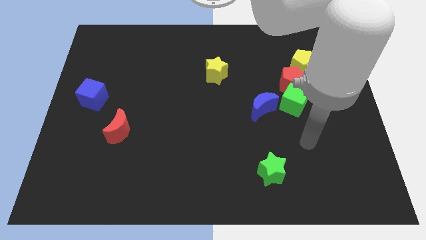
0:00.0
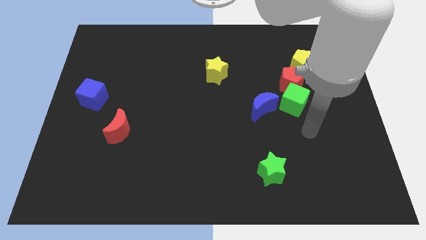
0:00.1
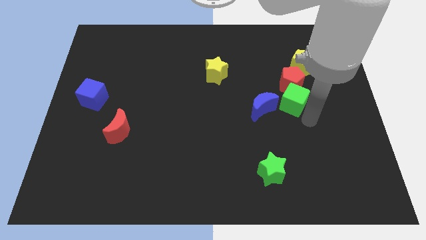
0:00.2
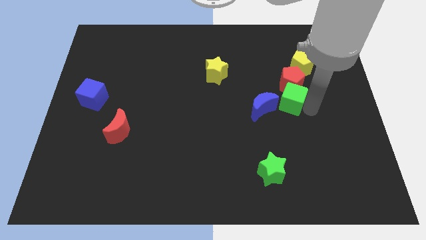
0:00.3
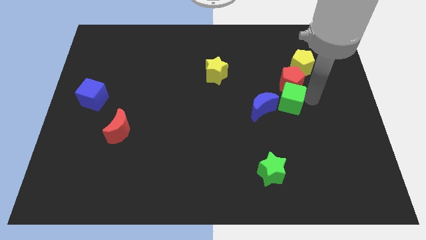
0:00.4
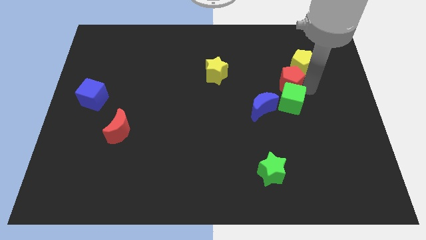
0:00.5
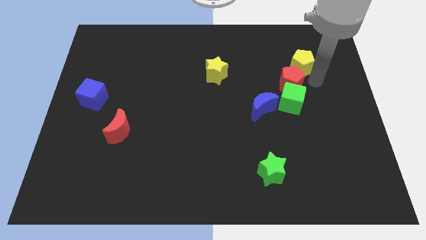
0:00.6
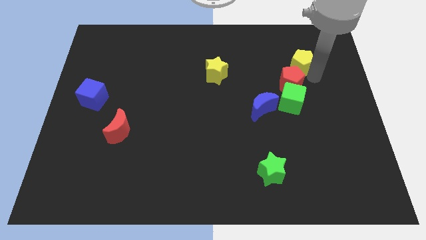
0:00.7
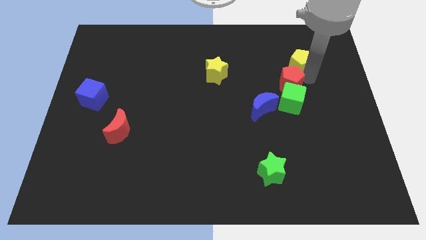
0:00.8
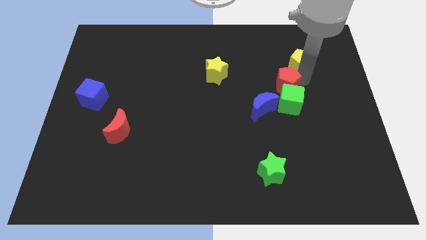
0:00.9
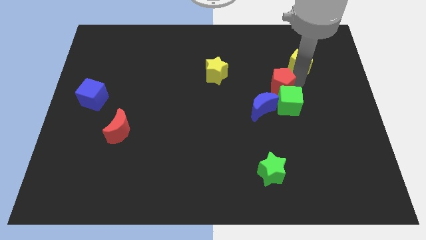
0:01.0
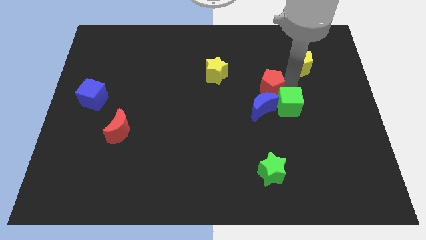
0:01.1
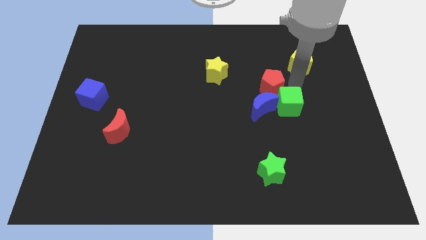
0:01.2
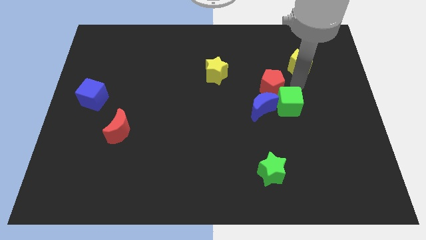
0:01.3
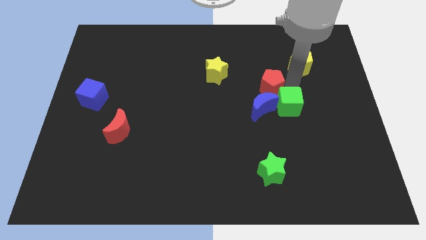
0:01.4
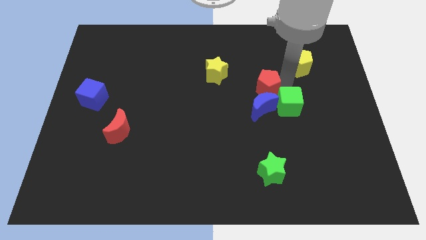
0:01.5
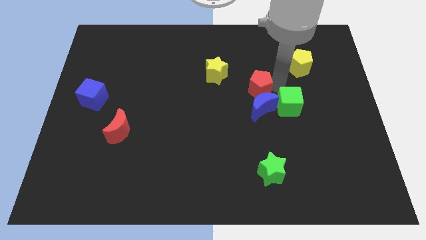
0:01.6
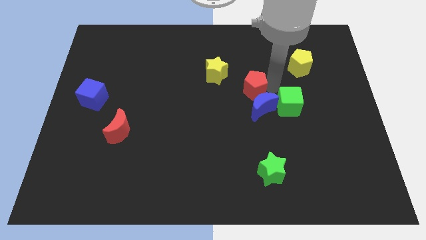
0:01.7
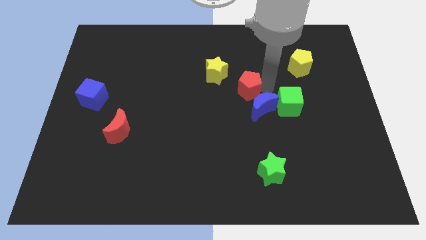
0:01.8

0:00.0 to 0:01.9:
separate the red pentagon from the green cube and yellow pentagon

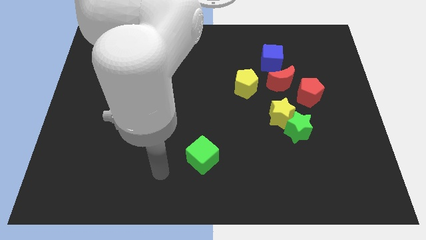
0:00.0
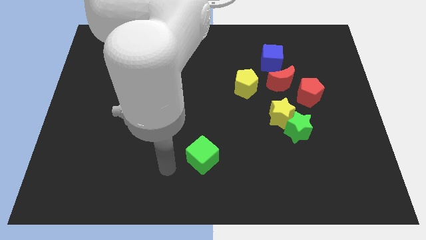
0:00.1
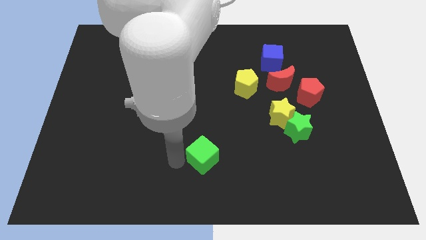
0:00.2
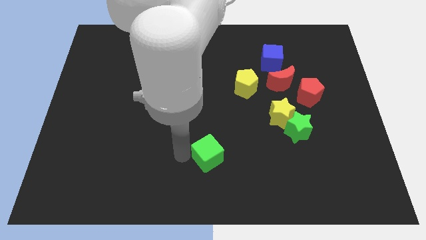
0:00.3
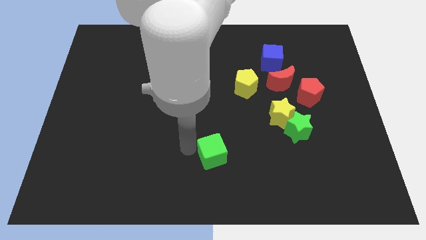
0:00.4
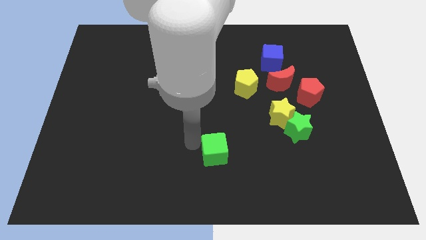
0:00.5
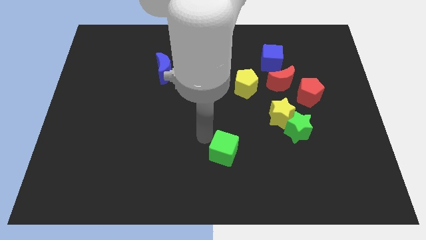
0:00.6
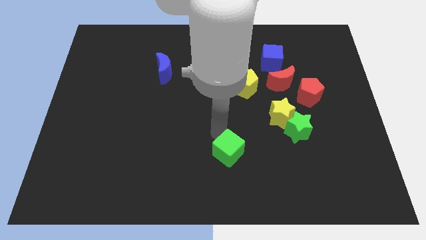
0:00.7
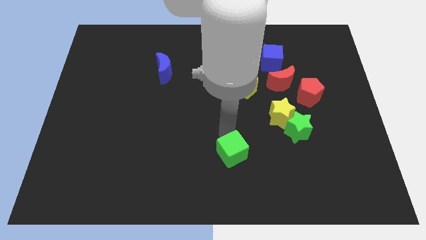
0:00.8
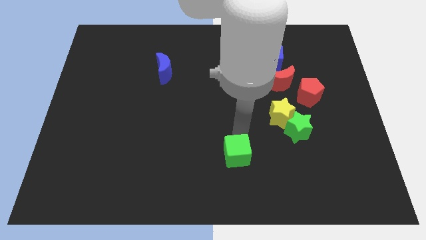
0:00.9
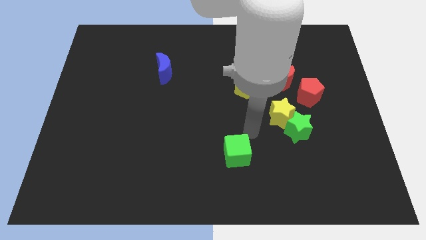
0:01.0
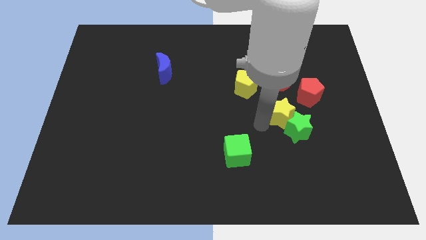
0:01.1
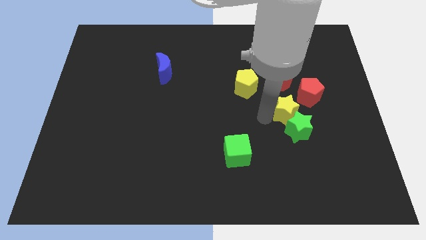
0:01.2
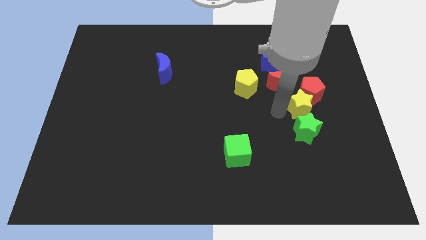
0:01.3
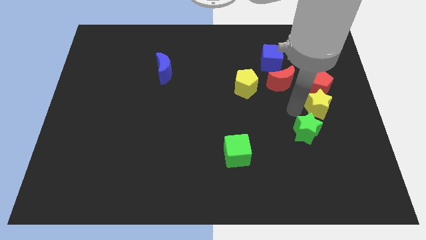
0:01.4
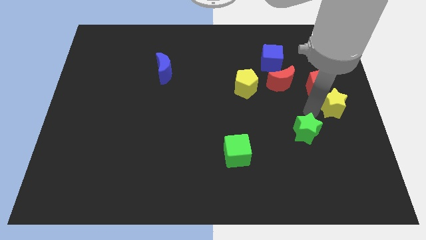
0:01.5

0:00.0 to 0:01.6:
move the green star away from the yellow star

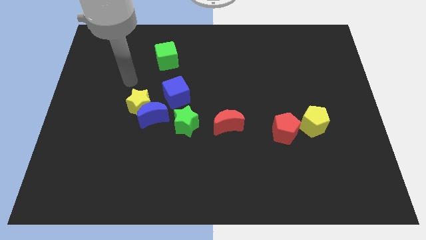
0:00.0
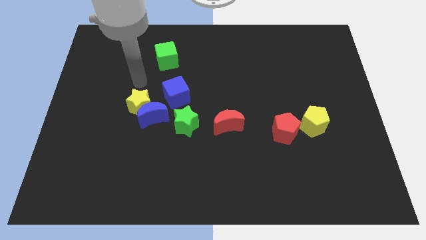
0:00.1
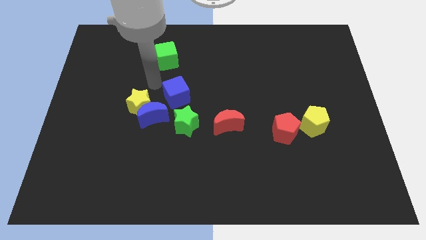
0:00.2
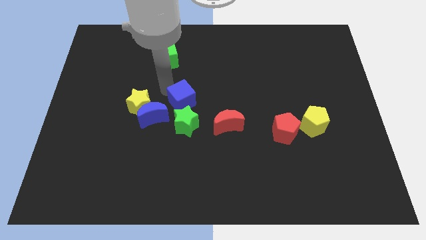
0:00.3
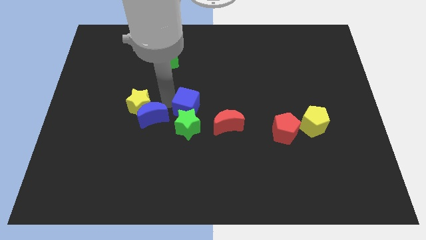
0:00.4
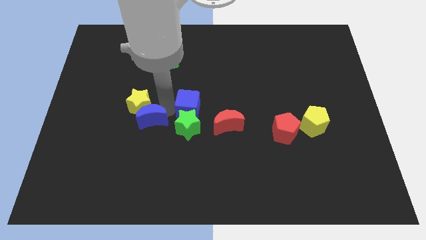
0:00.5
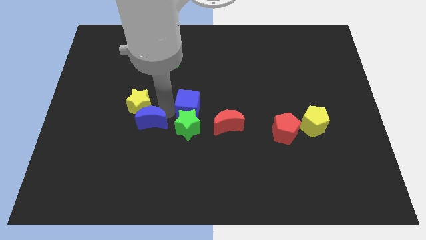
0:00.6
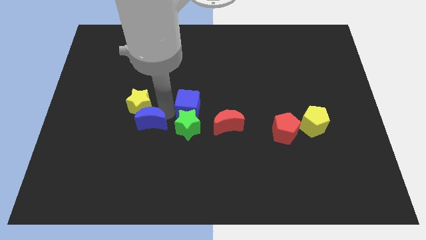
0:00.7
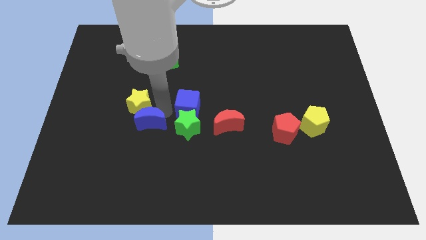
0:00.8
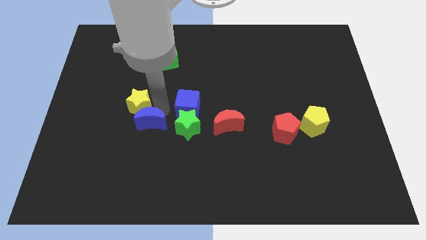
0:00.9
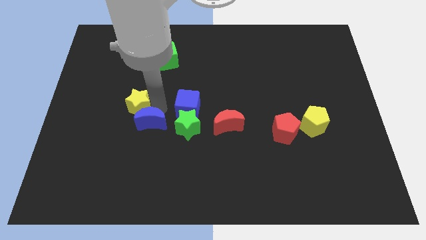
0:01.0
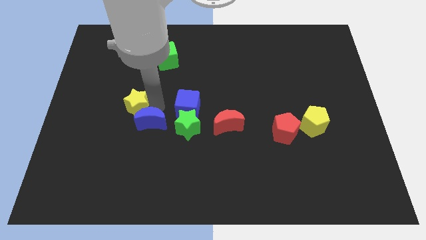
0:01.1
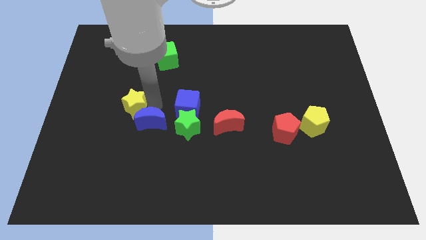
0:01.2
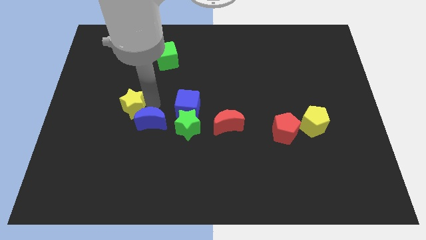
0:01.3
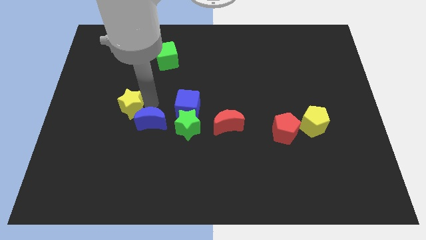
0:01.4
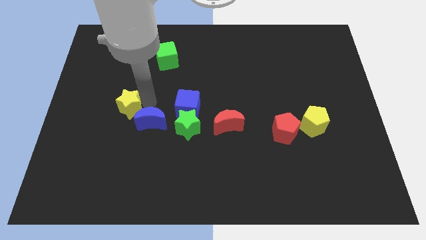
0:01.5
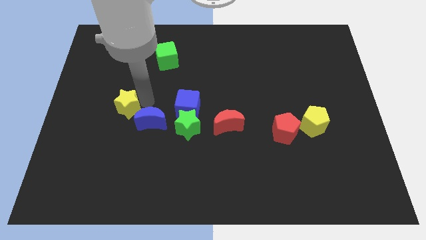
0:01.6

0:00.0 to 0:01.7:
move the yellow star away from the blue moon and blue cube

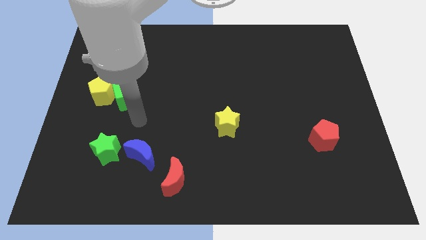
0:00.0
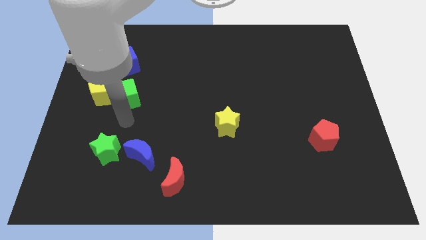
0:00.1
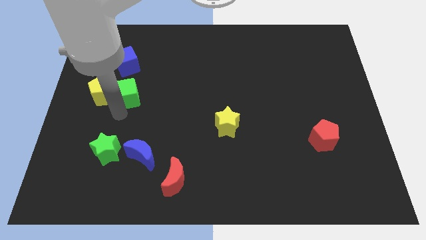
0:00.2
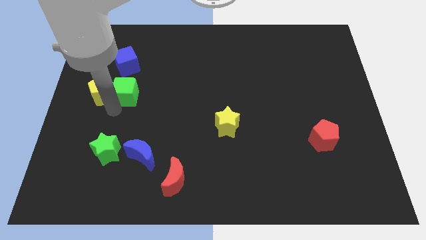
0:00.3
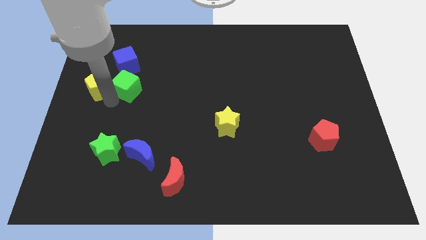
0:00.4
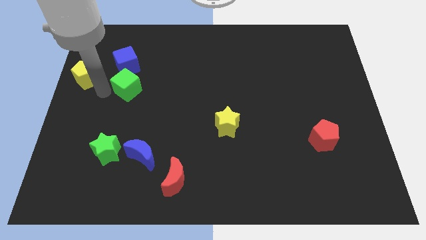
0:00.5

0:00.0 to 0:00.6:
move the green cube away from the yellow pentagon

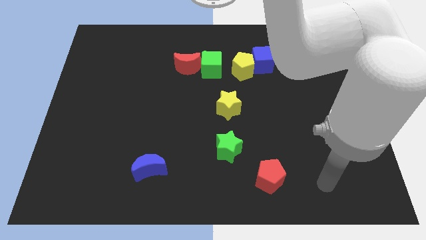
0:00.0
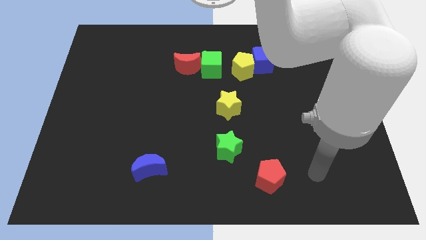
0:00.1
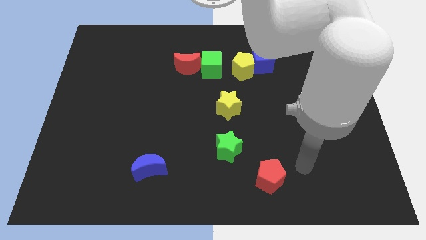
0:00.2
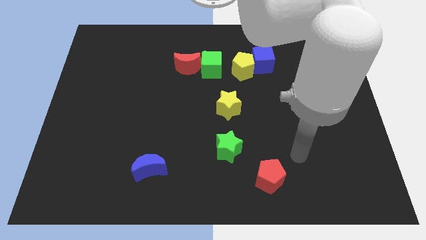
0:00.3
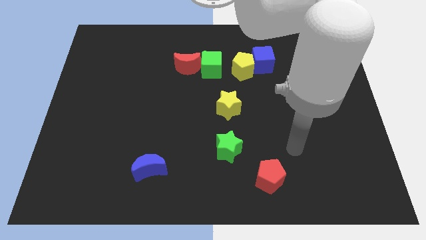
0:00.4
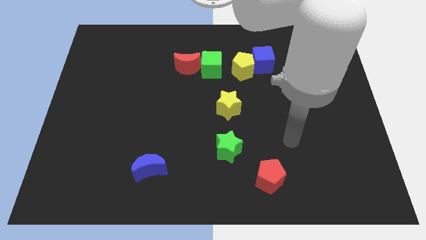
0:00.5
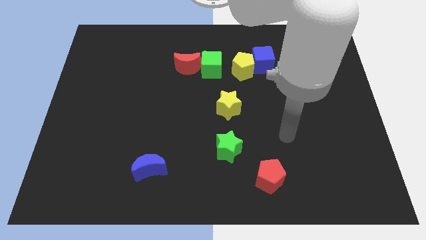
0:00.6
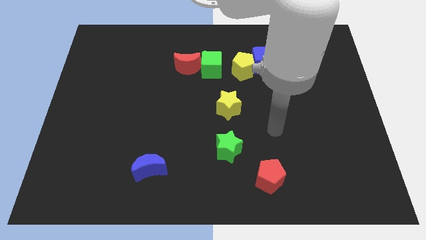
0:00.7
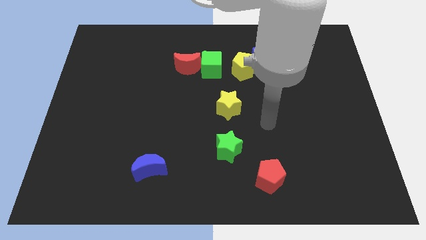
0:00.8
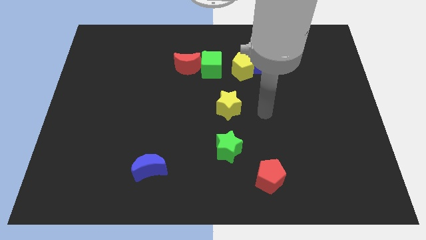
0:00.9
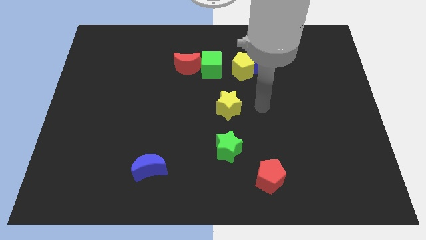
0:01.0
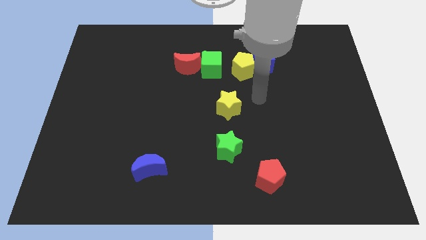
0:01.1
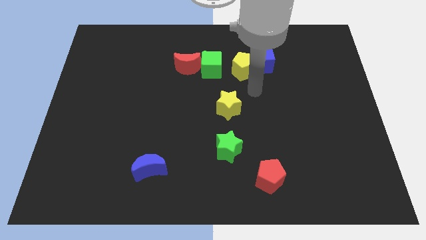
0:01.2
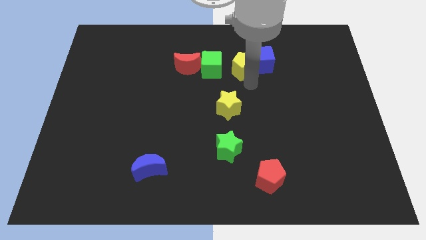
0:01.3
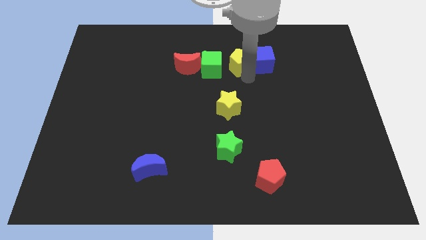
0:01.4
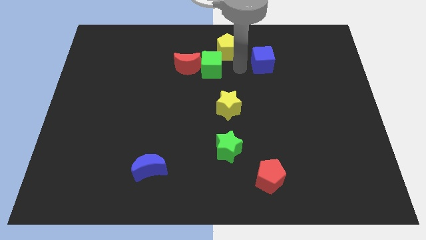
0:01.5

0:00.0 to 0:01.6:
move the blue cube away from the yellow pentagon

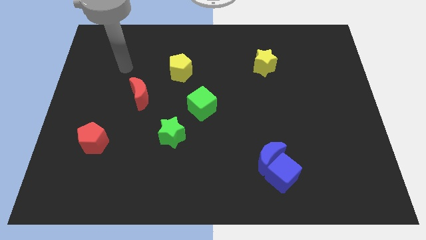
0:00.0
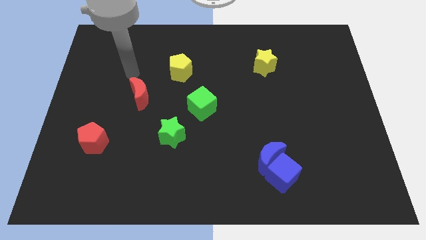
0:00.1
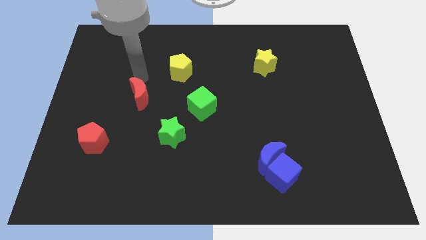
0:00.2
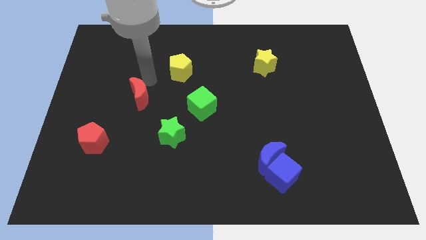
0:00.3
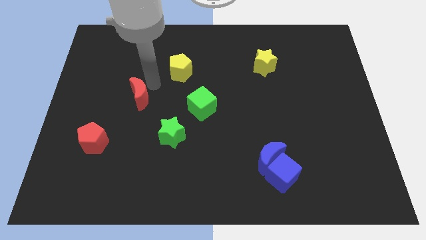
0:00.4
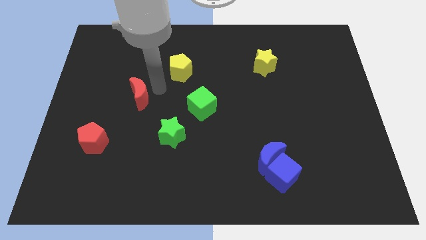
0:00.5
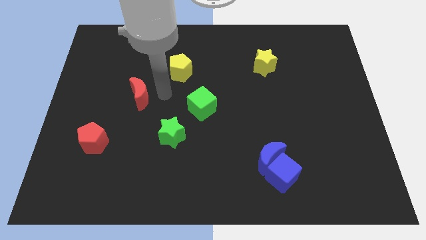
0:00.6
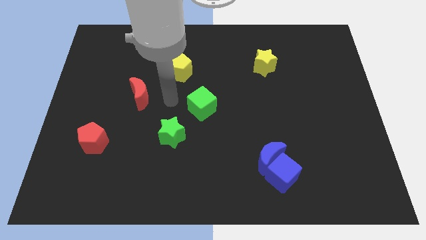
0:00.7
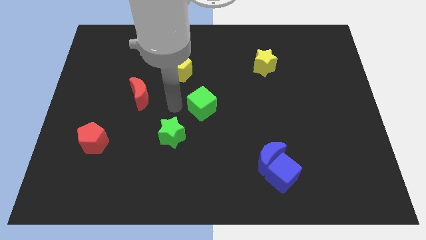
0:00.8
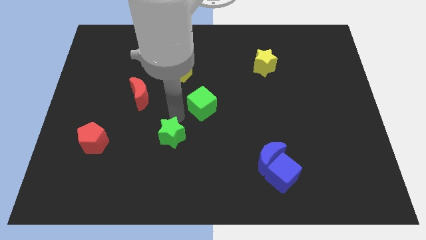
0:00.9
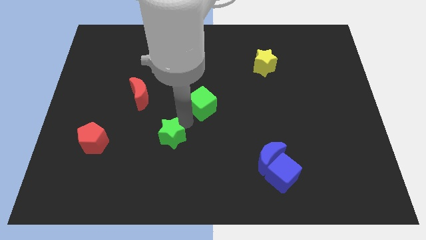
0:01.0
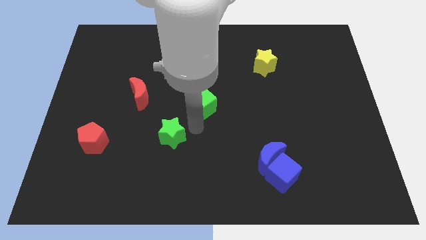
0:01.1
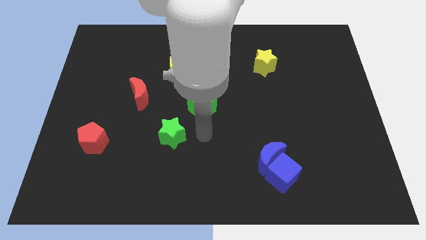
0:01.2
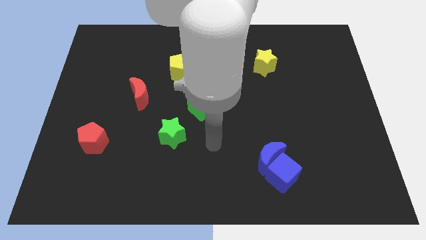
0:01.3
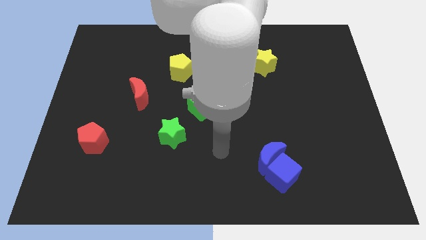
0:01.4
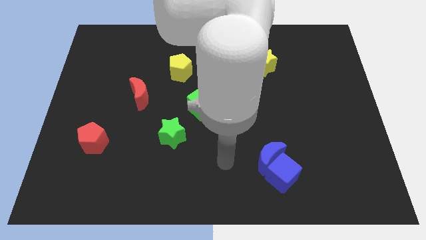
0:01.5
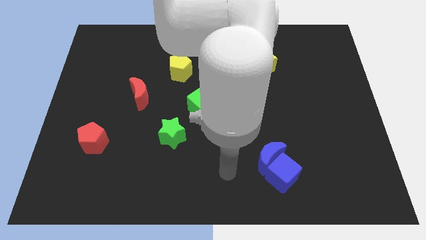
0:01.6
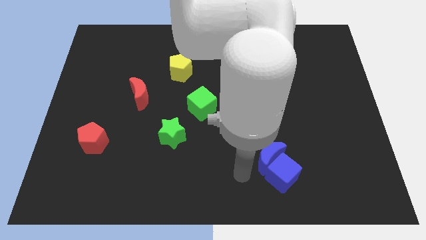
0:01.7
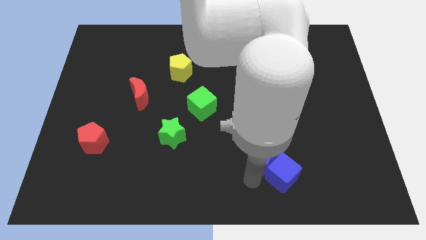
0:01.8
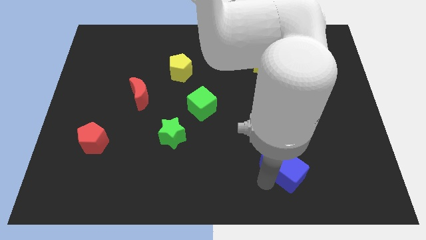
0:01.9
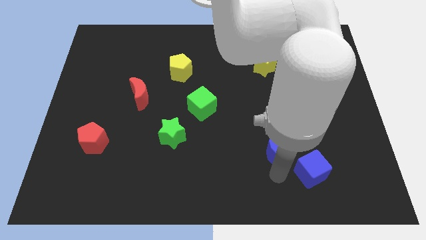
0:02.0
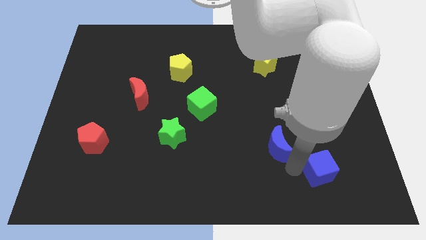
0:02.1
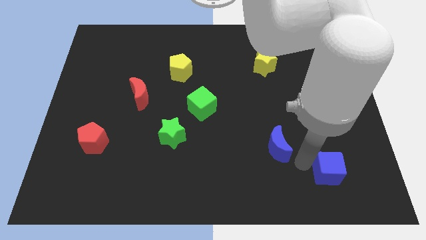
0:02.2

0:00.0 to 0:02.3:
separate the blue moon from the blue cube
